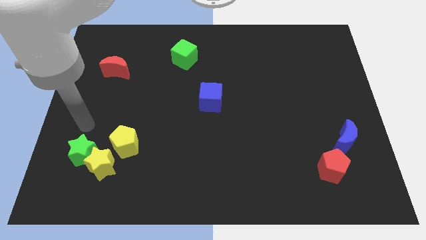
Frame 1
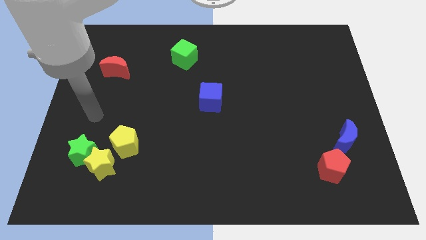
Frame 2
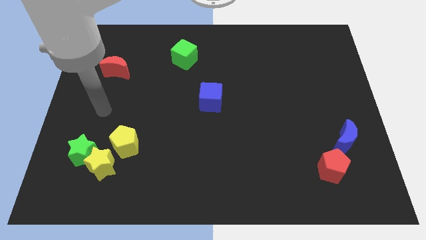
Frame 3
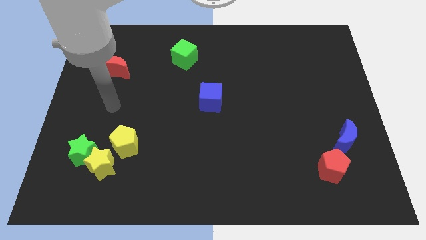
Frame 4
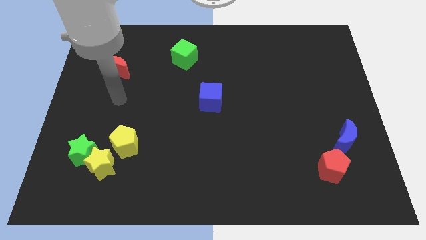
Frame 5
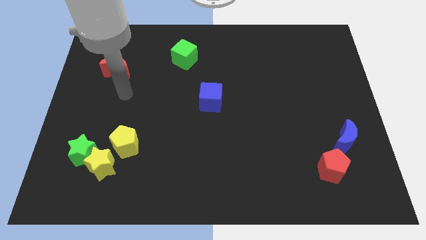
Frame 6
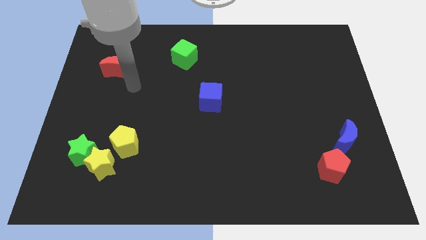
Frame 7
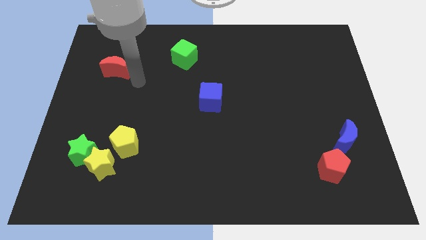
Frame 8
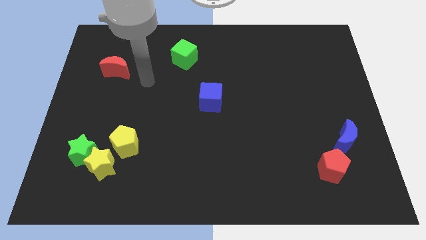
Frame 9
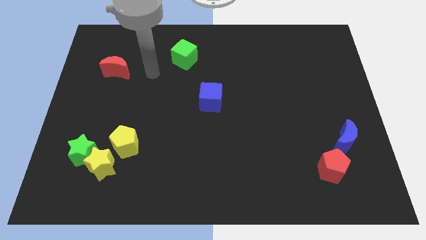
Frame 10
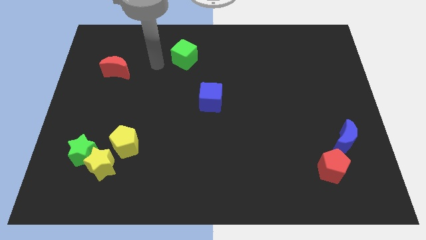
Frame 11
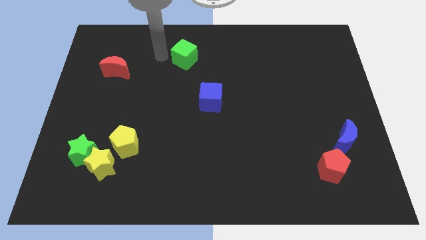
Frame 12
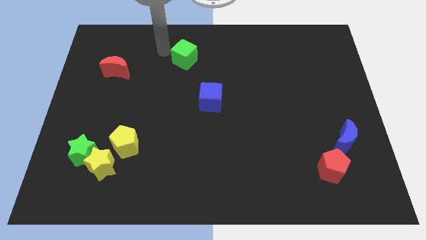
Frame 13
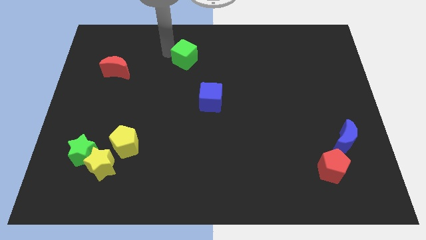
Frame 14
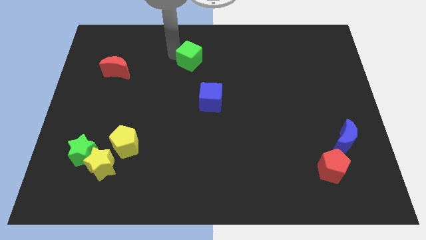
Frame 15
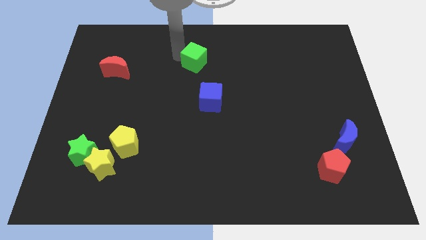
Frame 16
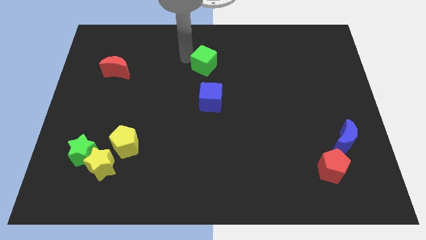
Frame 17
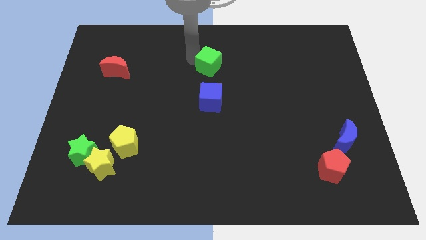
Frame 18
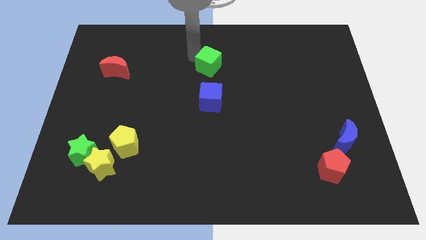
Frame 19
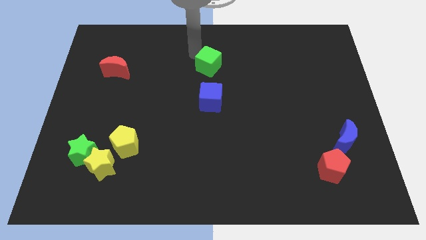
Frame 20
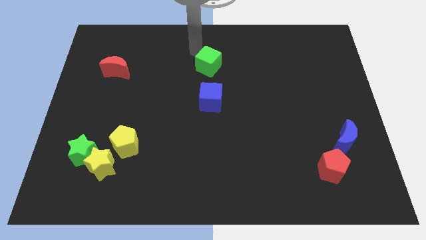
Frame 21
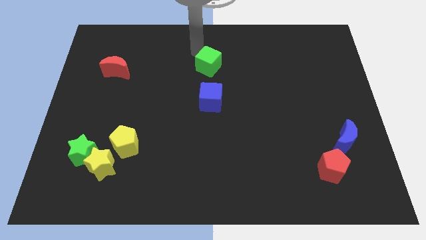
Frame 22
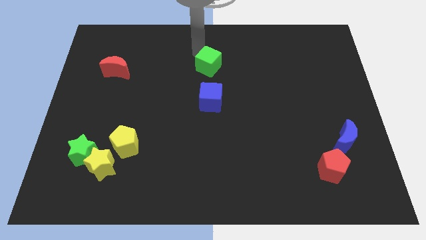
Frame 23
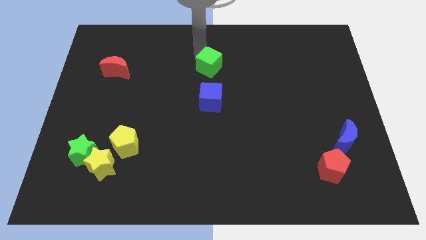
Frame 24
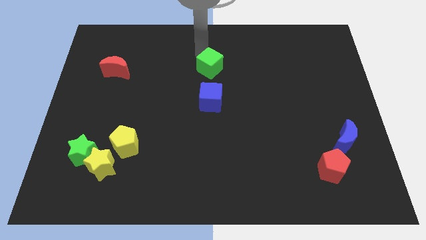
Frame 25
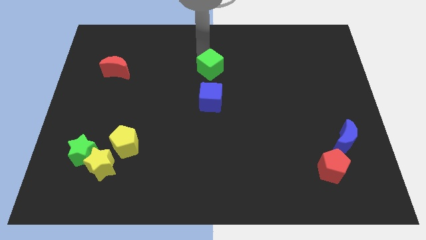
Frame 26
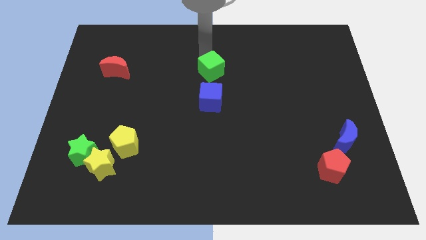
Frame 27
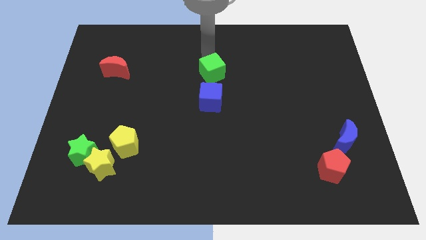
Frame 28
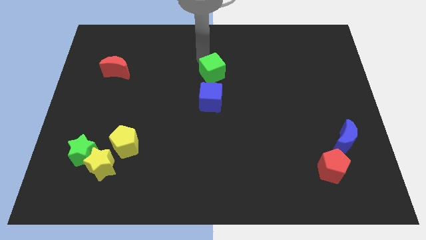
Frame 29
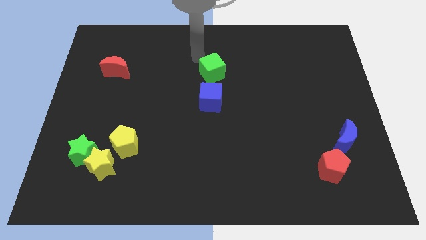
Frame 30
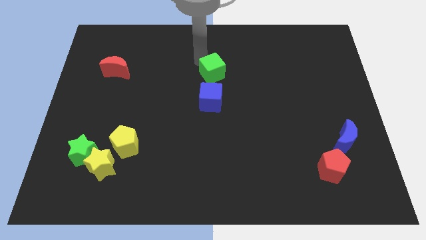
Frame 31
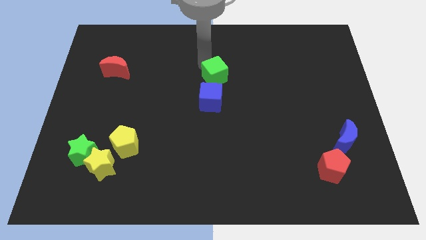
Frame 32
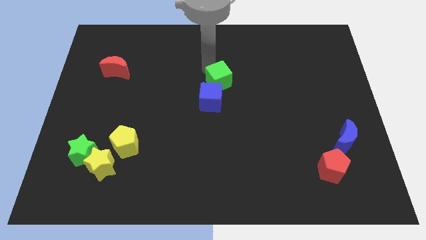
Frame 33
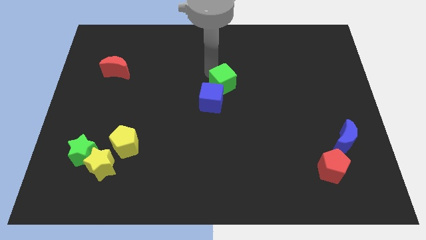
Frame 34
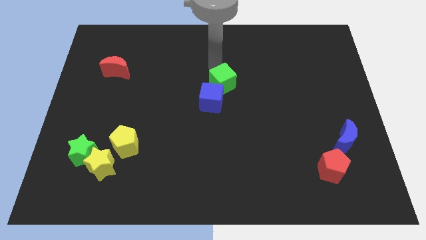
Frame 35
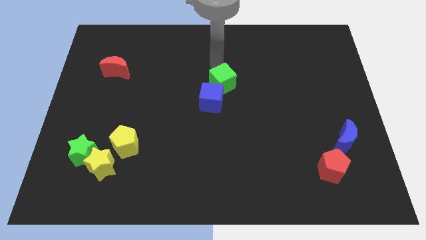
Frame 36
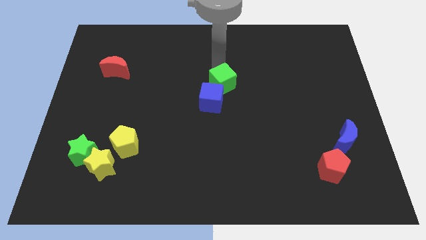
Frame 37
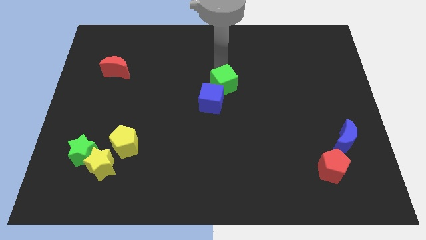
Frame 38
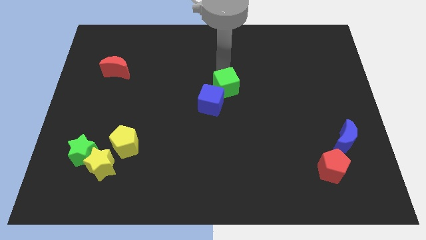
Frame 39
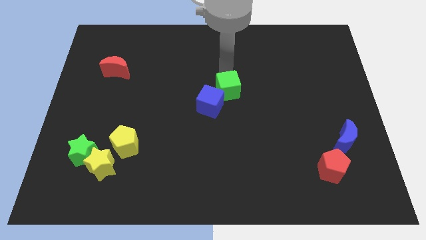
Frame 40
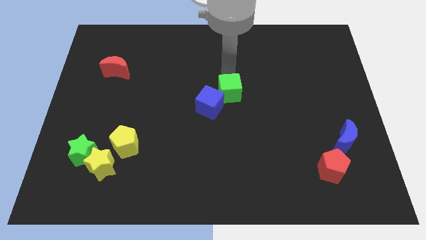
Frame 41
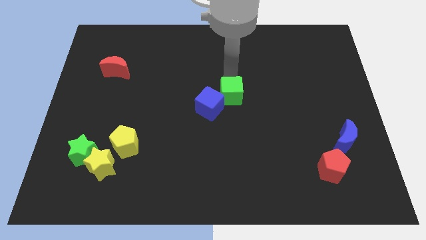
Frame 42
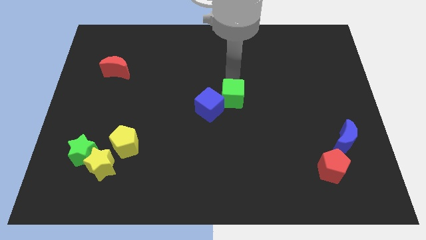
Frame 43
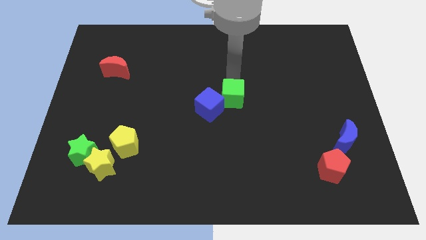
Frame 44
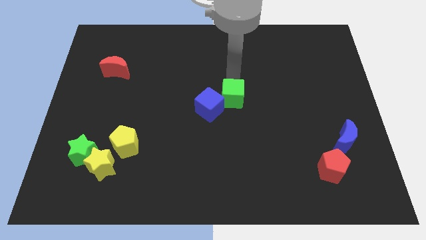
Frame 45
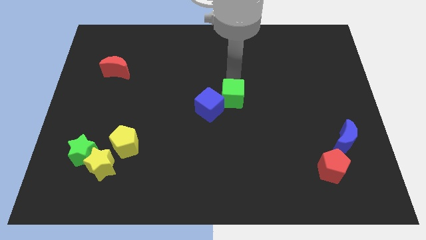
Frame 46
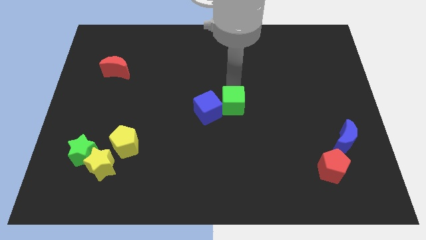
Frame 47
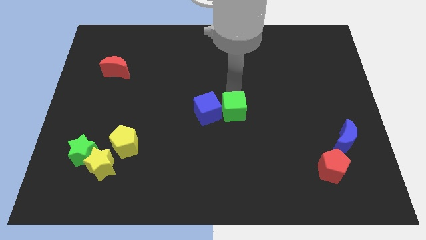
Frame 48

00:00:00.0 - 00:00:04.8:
slide the green cube to the bottom right side of the blue cube

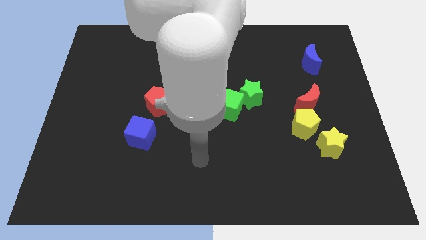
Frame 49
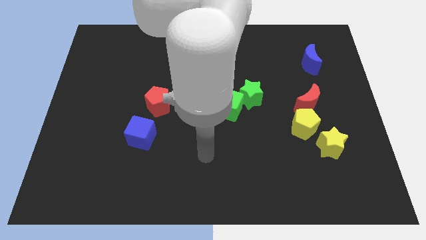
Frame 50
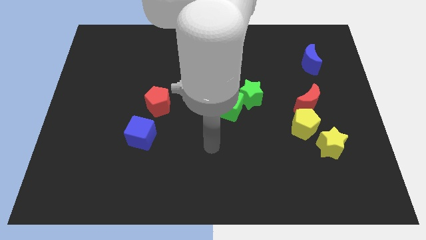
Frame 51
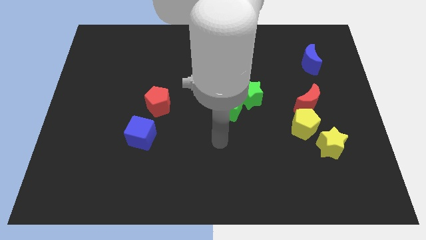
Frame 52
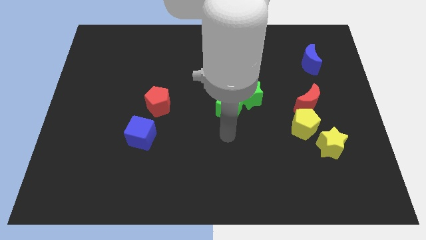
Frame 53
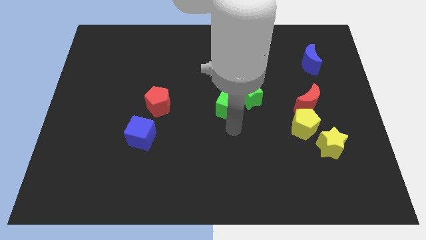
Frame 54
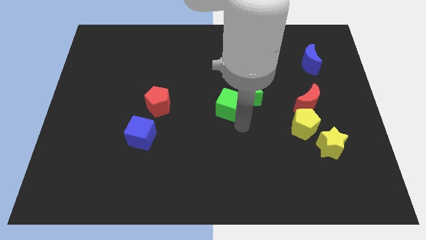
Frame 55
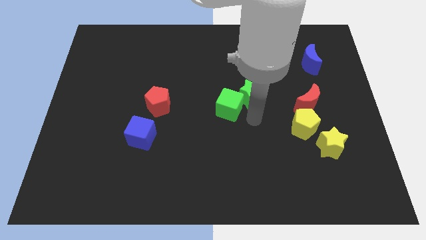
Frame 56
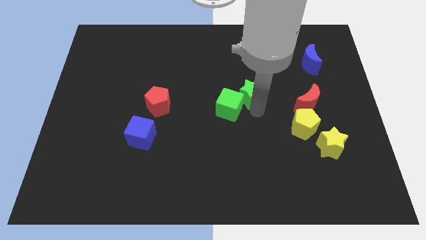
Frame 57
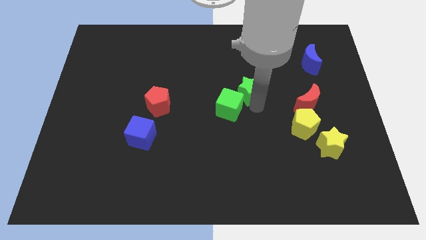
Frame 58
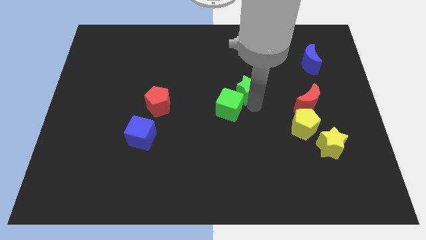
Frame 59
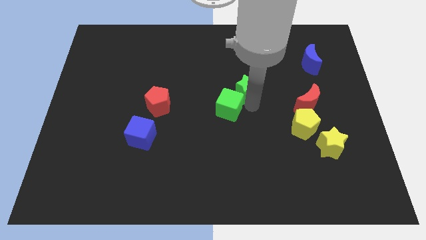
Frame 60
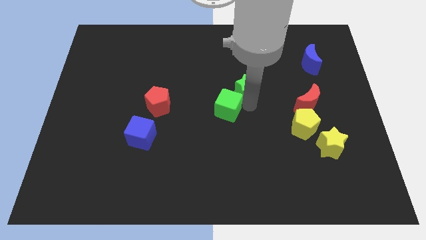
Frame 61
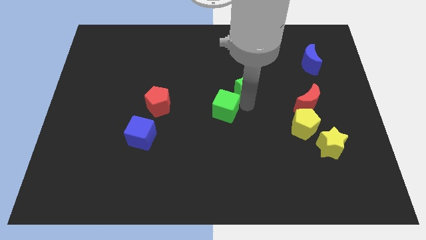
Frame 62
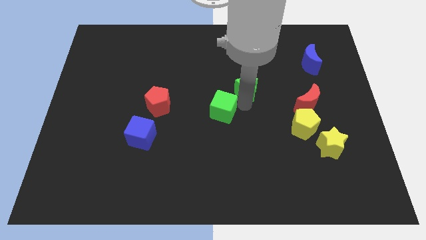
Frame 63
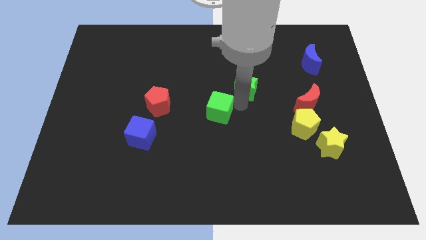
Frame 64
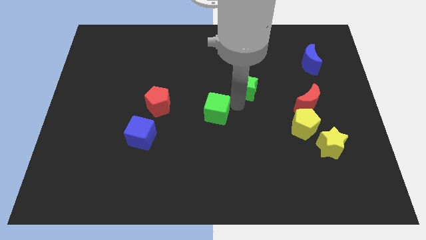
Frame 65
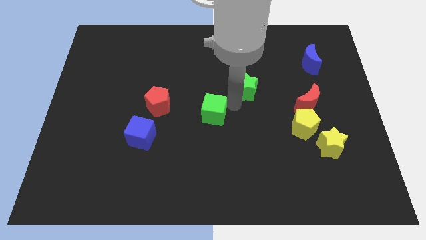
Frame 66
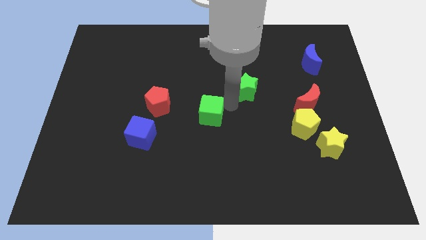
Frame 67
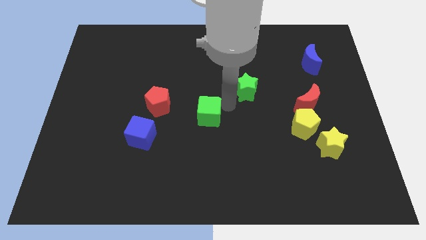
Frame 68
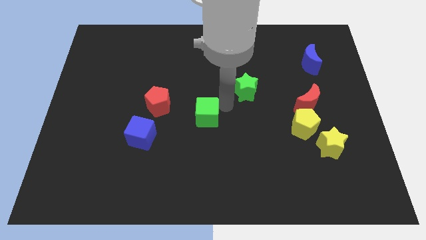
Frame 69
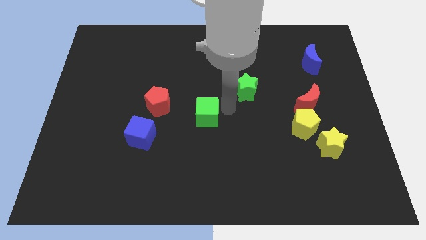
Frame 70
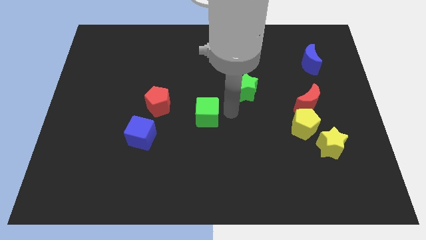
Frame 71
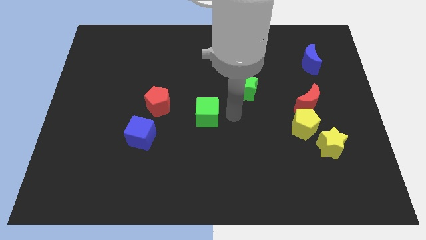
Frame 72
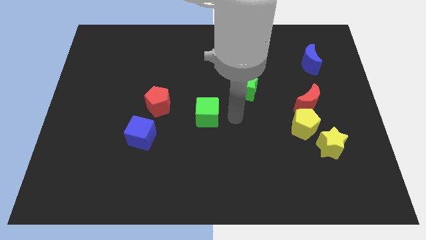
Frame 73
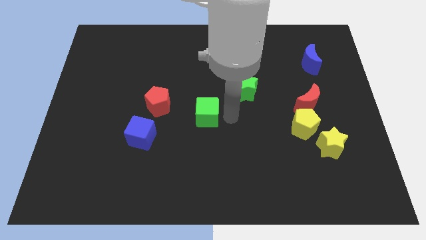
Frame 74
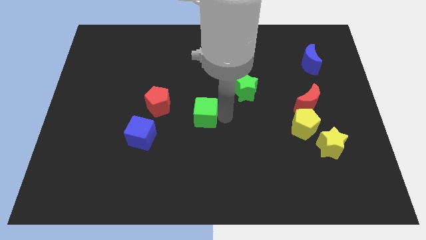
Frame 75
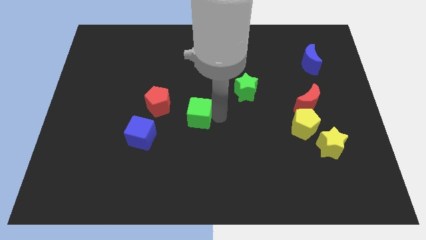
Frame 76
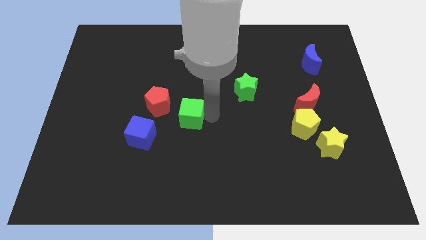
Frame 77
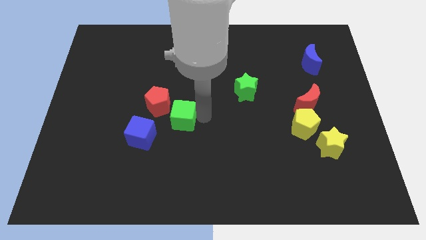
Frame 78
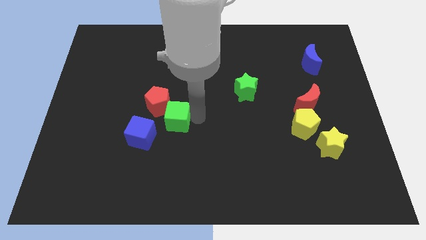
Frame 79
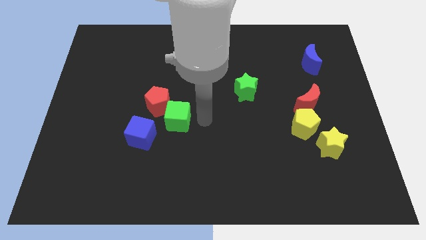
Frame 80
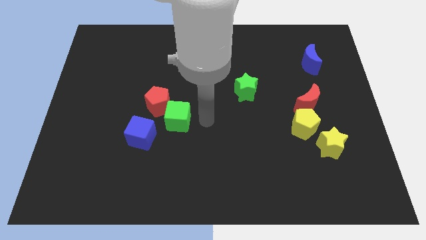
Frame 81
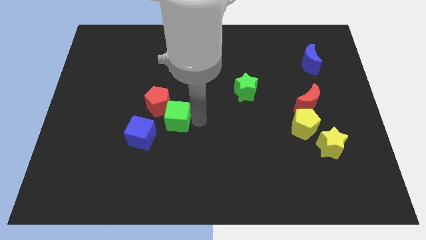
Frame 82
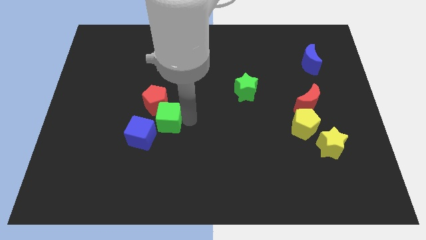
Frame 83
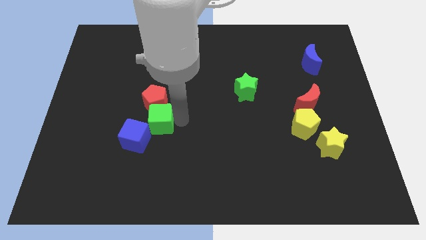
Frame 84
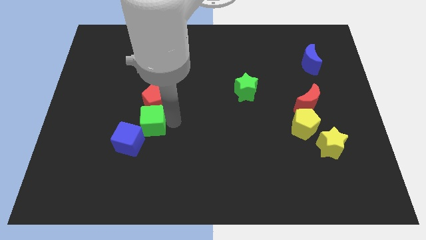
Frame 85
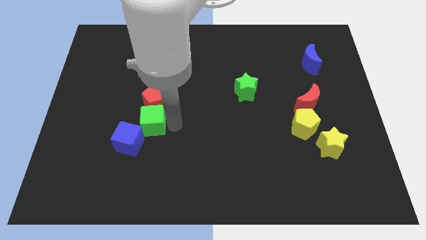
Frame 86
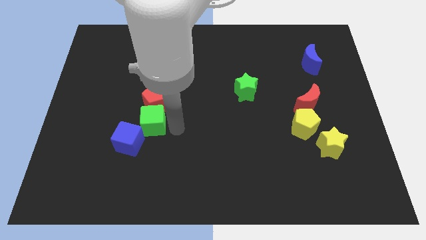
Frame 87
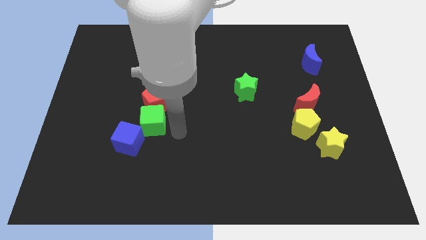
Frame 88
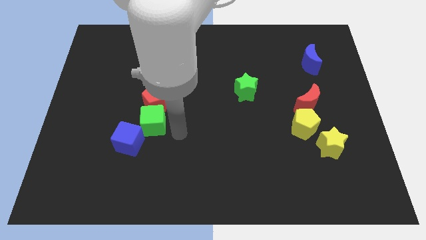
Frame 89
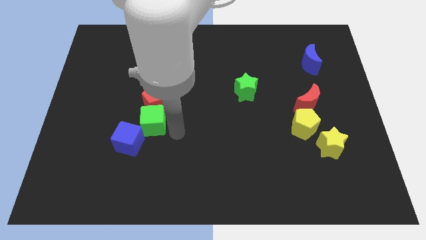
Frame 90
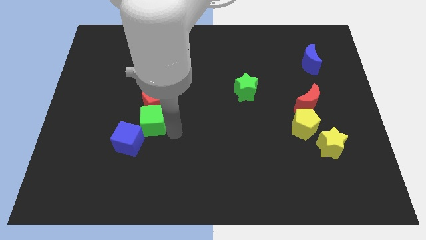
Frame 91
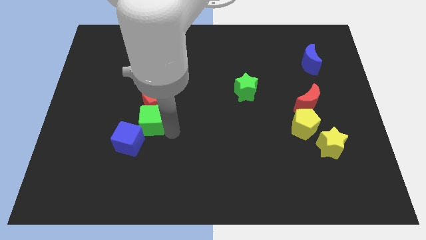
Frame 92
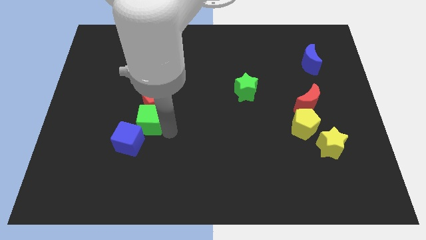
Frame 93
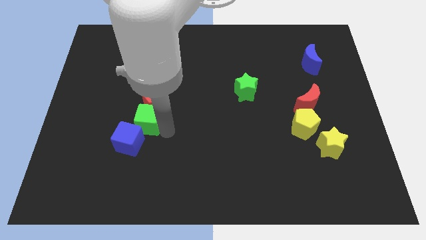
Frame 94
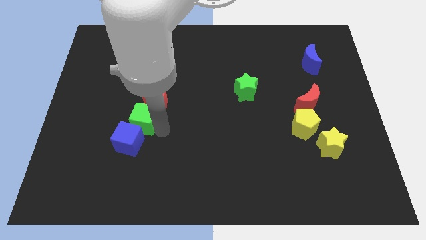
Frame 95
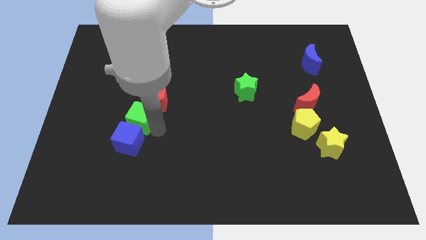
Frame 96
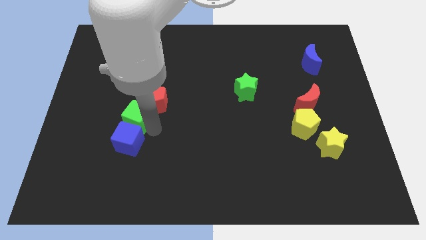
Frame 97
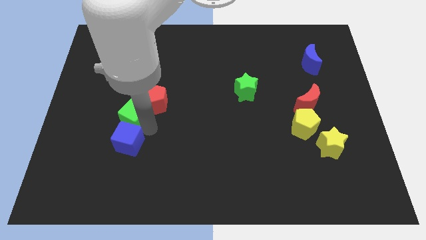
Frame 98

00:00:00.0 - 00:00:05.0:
slide the green cube just left of the red pentagon
